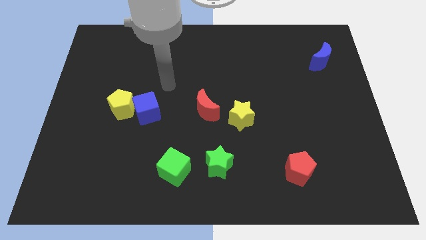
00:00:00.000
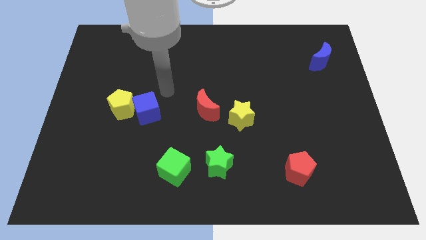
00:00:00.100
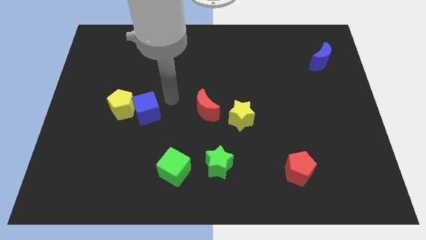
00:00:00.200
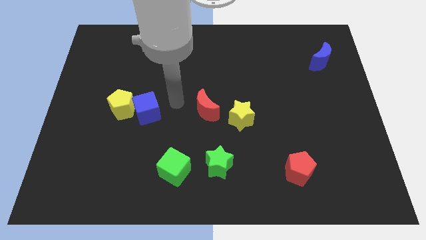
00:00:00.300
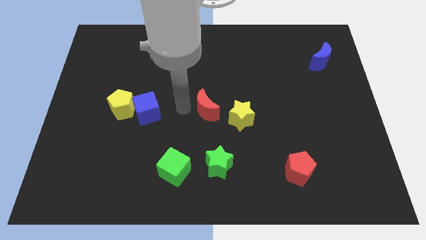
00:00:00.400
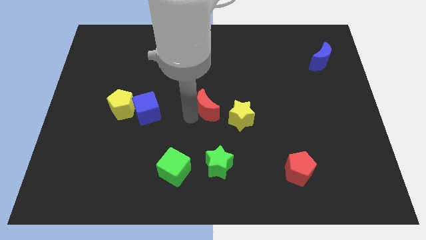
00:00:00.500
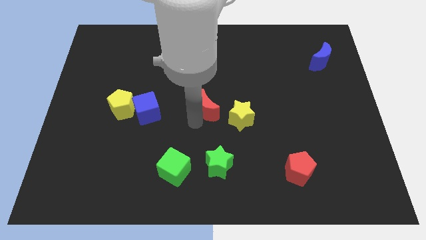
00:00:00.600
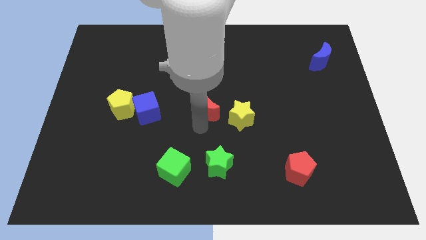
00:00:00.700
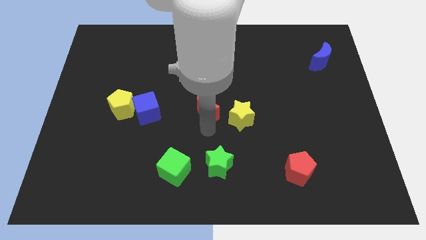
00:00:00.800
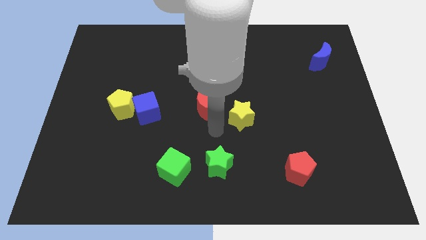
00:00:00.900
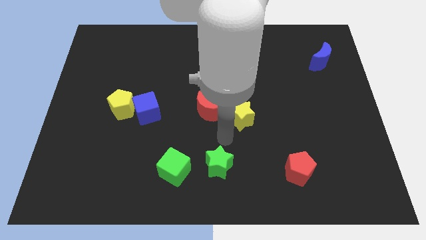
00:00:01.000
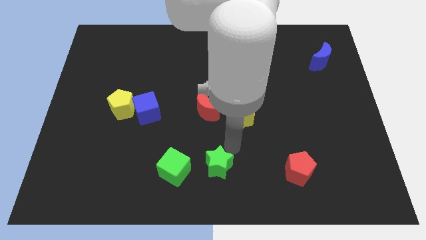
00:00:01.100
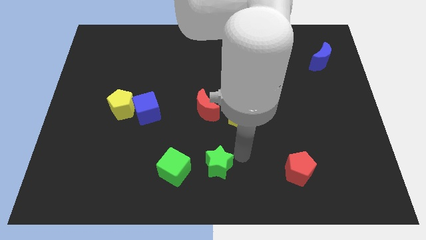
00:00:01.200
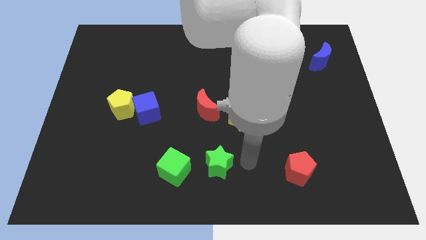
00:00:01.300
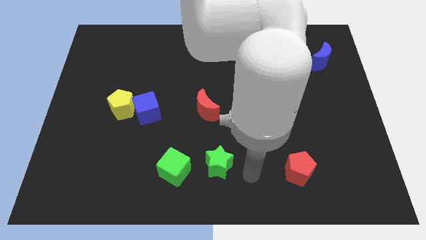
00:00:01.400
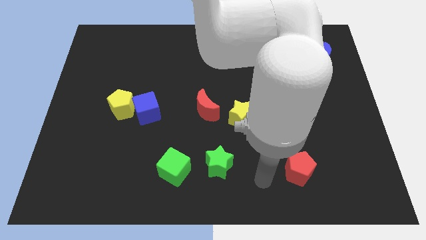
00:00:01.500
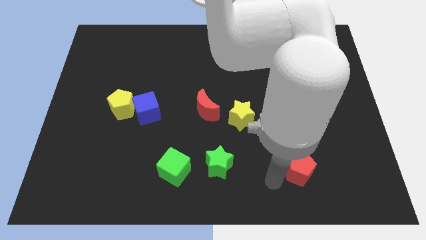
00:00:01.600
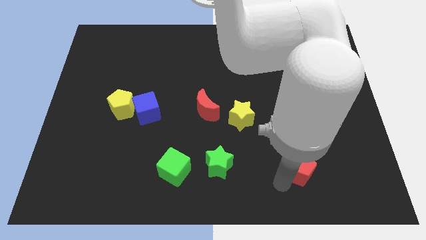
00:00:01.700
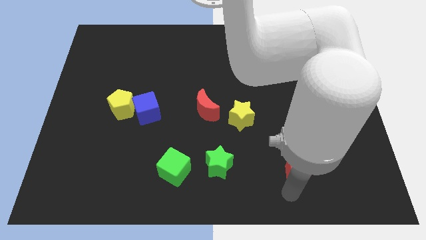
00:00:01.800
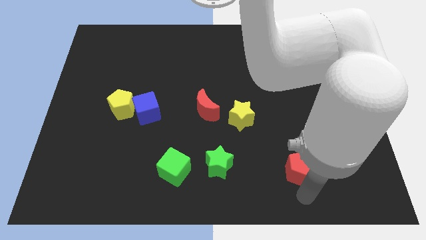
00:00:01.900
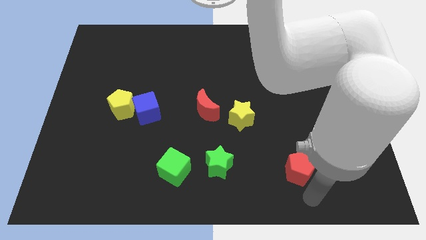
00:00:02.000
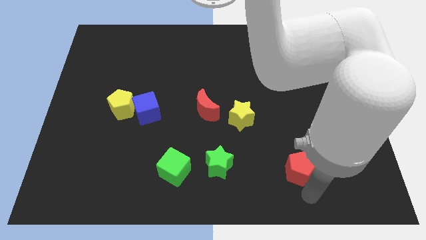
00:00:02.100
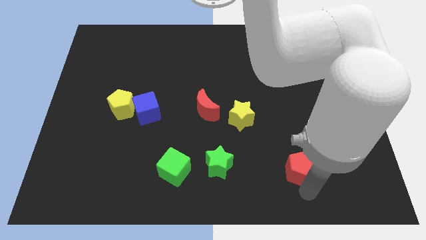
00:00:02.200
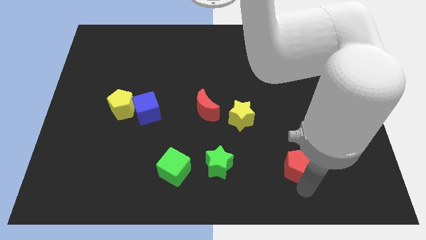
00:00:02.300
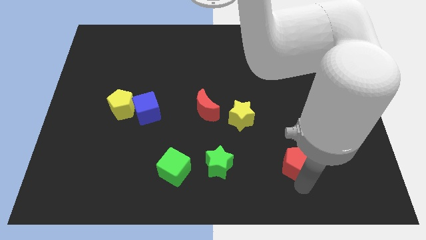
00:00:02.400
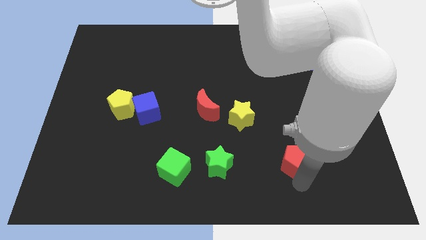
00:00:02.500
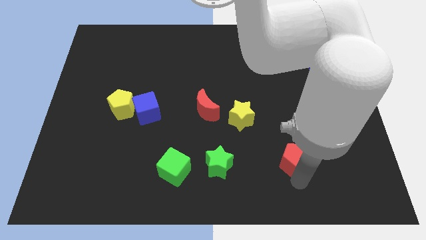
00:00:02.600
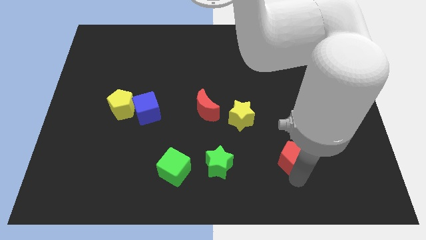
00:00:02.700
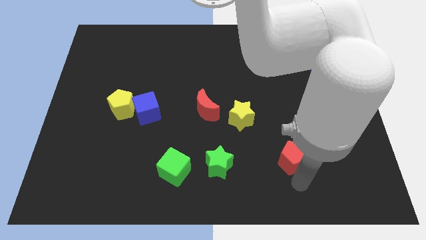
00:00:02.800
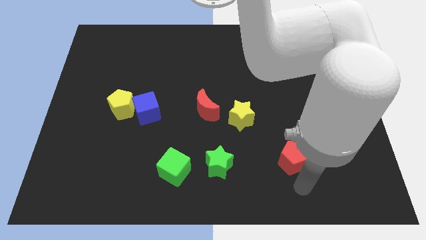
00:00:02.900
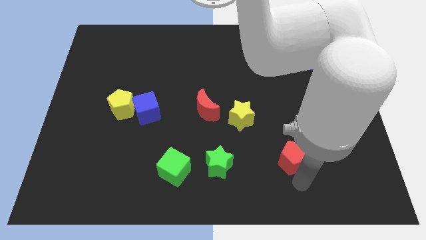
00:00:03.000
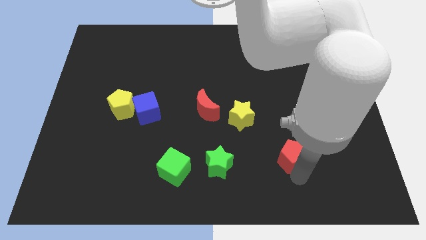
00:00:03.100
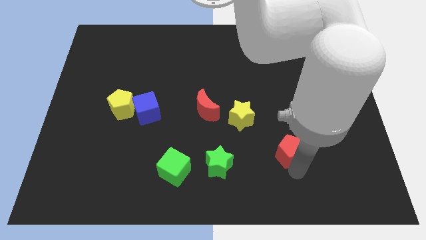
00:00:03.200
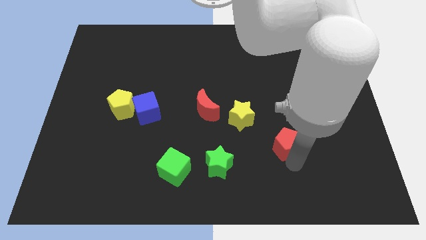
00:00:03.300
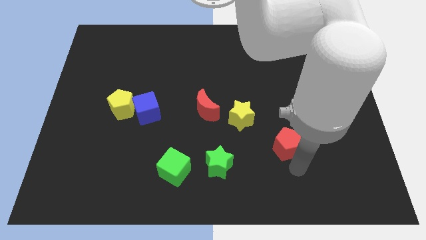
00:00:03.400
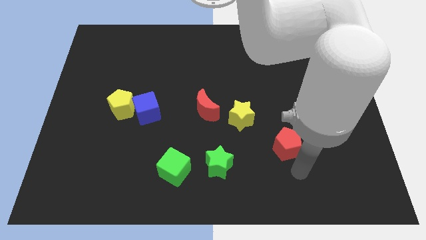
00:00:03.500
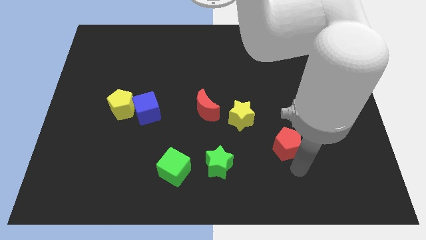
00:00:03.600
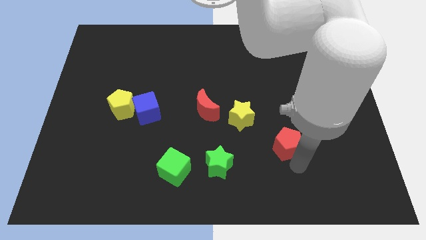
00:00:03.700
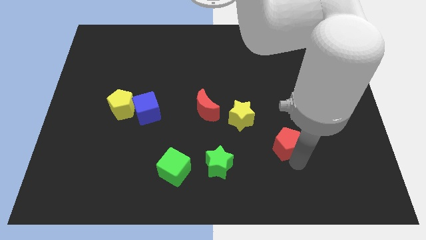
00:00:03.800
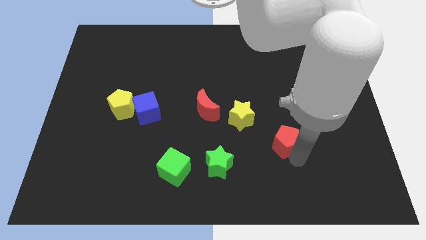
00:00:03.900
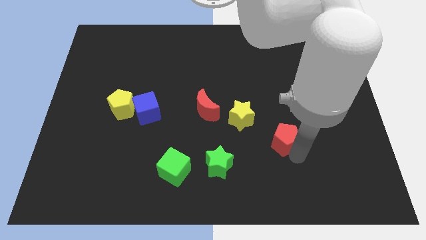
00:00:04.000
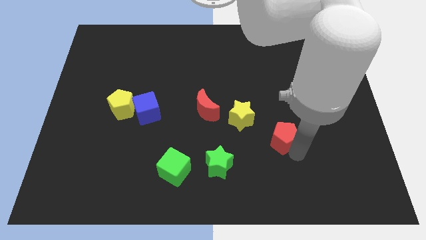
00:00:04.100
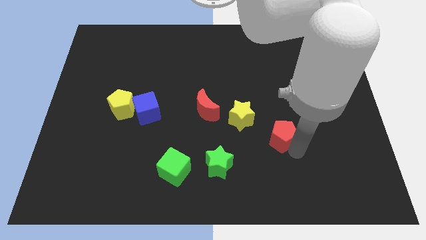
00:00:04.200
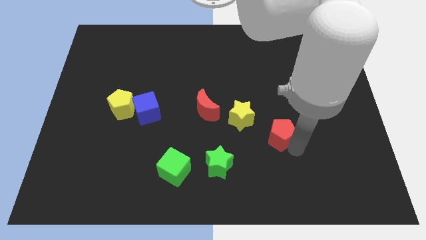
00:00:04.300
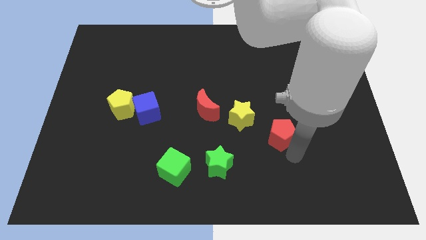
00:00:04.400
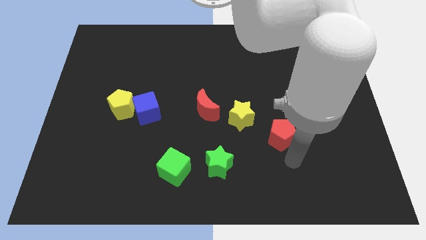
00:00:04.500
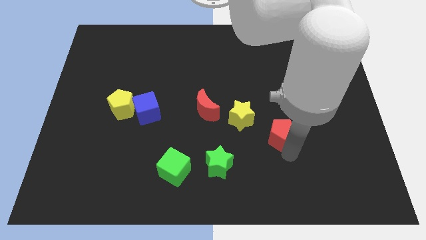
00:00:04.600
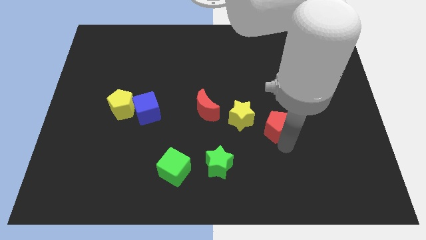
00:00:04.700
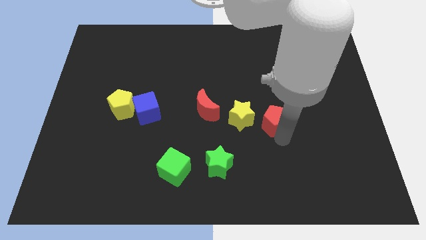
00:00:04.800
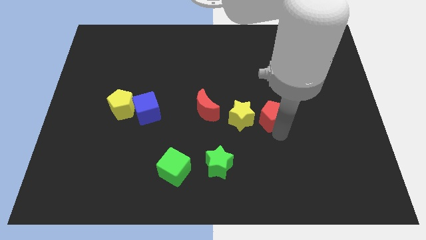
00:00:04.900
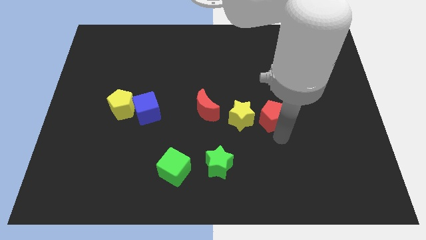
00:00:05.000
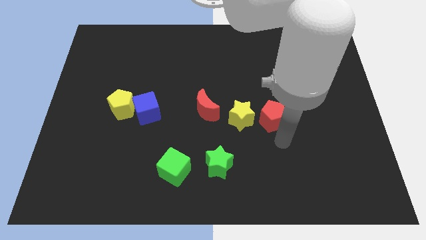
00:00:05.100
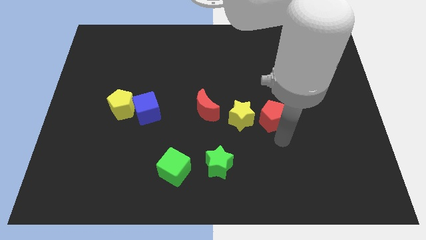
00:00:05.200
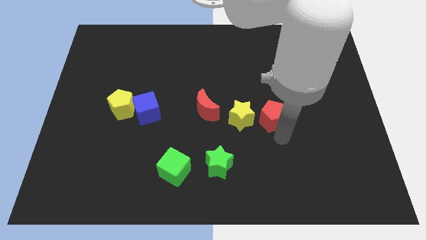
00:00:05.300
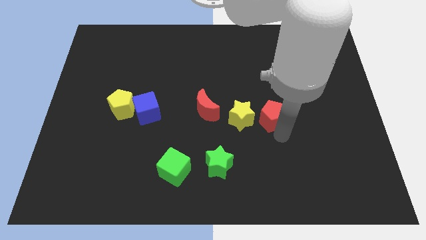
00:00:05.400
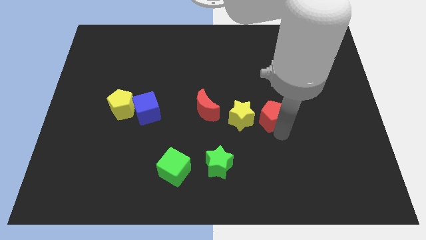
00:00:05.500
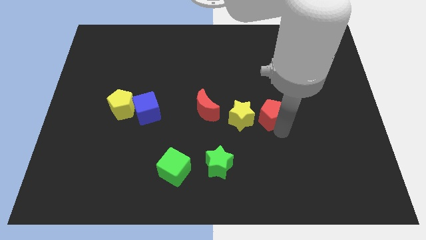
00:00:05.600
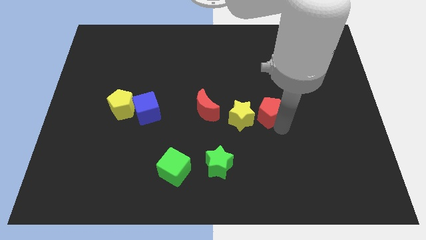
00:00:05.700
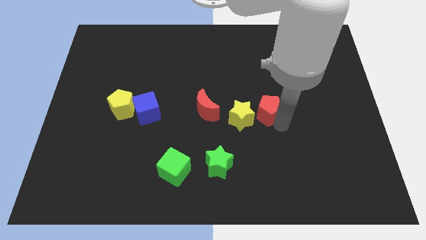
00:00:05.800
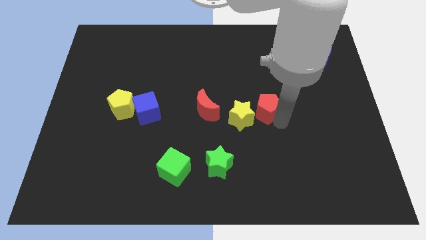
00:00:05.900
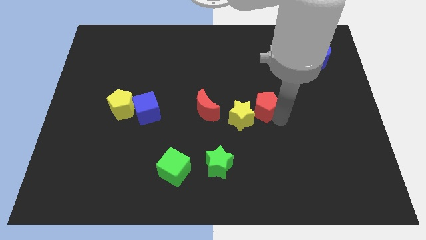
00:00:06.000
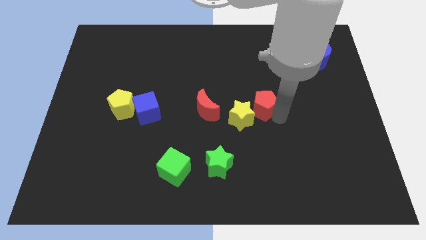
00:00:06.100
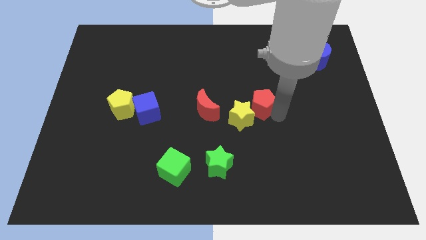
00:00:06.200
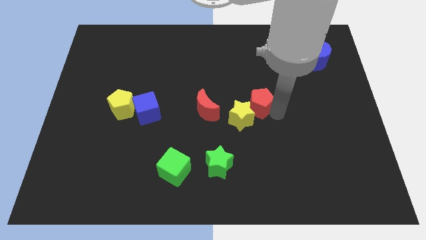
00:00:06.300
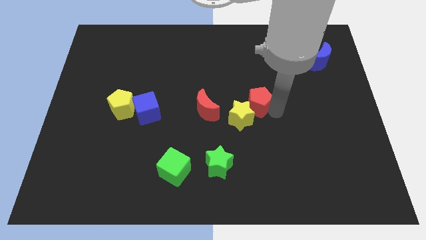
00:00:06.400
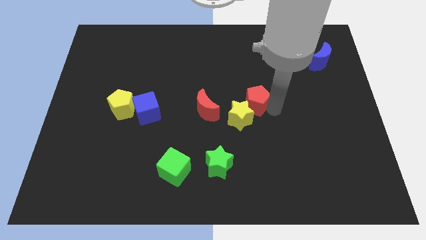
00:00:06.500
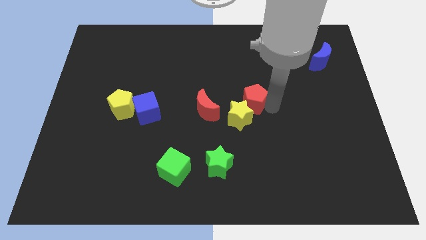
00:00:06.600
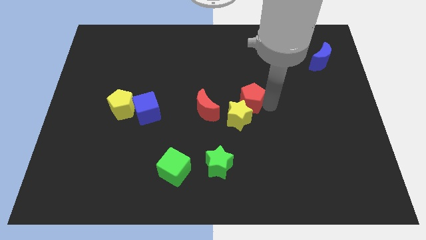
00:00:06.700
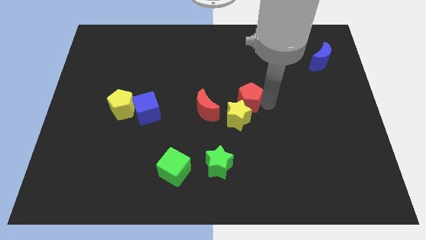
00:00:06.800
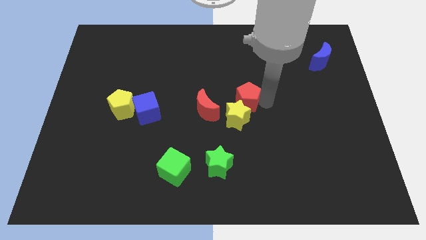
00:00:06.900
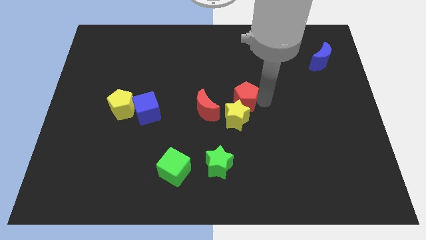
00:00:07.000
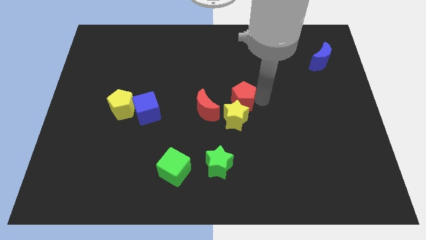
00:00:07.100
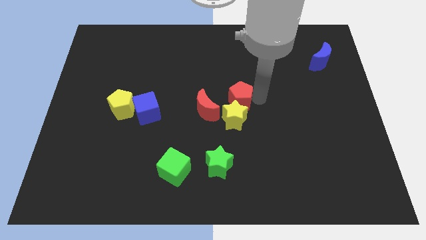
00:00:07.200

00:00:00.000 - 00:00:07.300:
push the red pentagon up and left diagonally

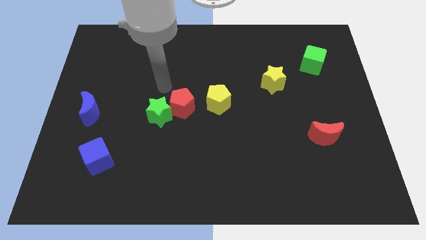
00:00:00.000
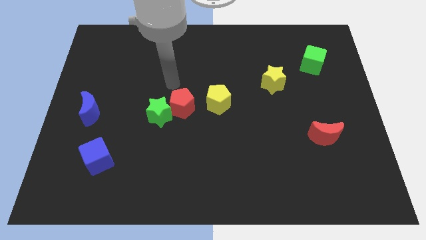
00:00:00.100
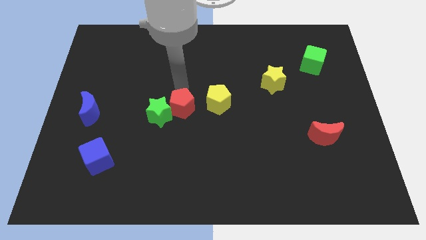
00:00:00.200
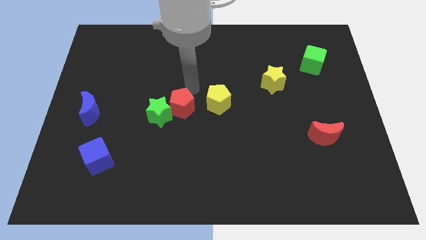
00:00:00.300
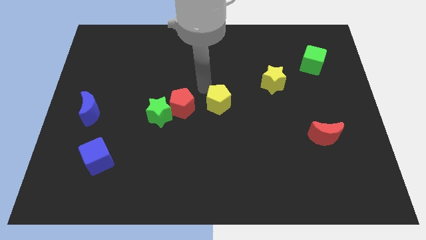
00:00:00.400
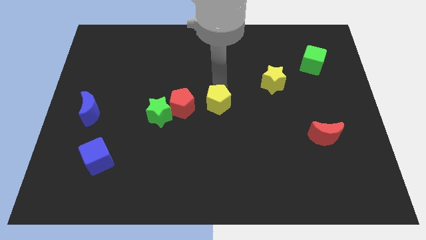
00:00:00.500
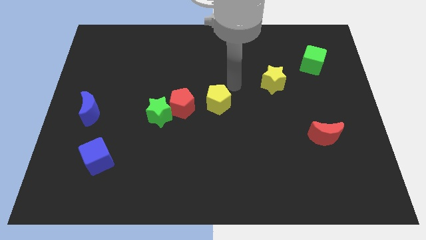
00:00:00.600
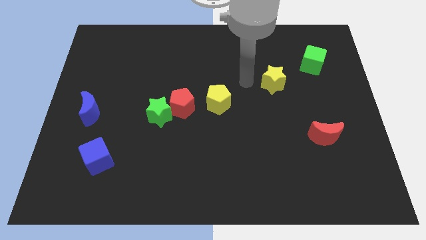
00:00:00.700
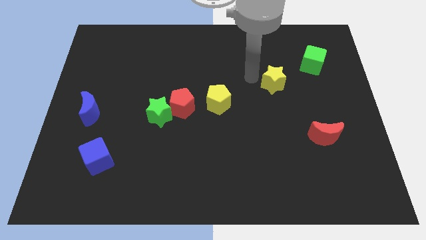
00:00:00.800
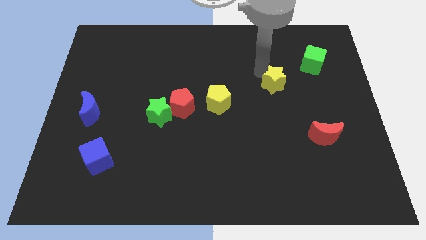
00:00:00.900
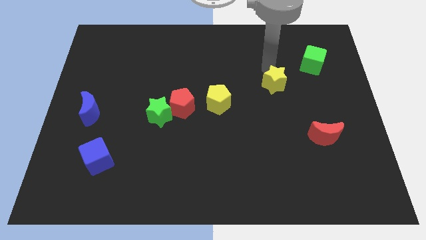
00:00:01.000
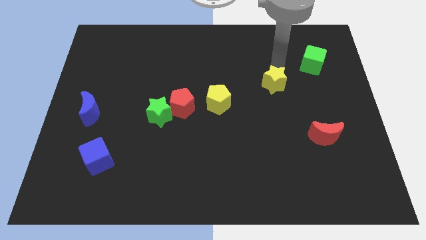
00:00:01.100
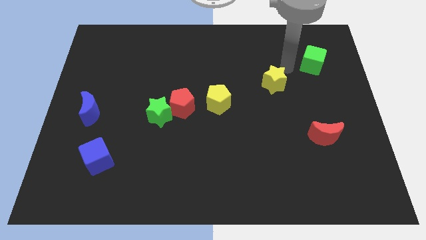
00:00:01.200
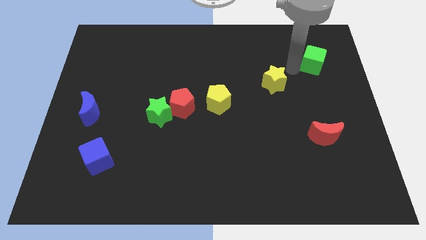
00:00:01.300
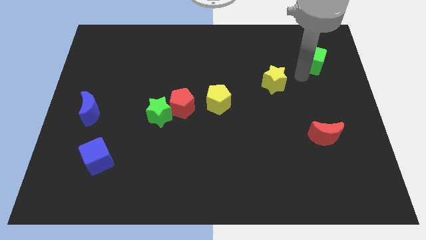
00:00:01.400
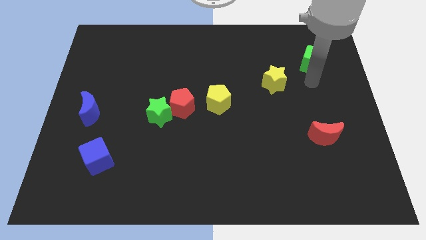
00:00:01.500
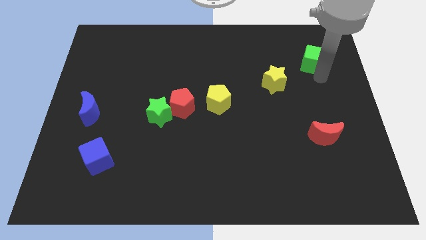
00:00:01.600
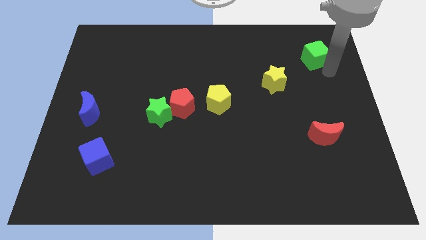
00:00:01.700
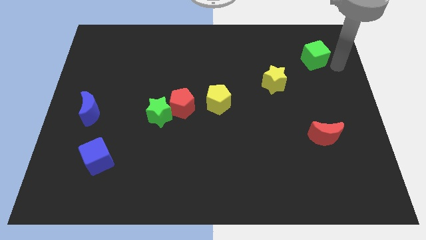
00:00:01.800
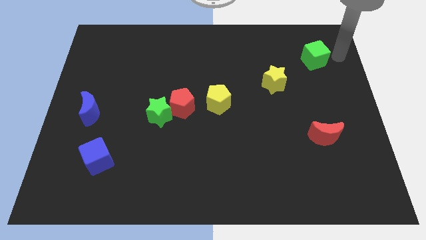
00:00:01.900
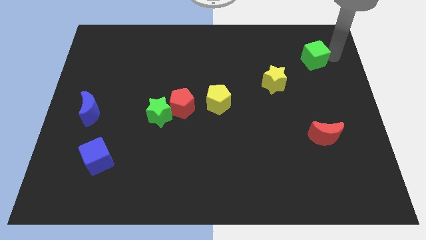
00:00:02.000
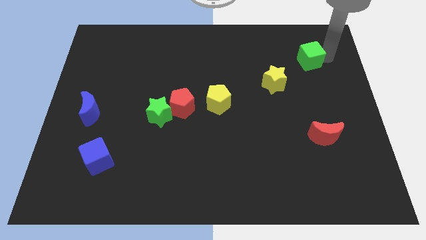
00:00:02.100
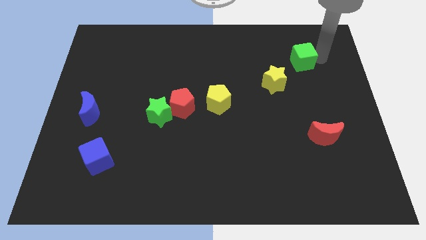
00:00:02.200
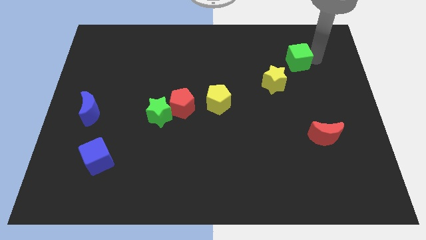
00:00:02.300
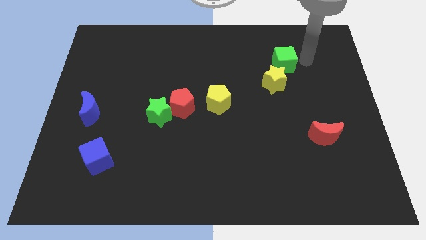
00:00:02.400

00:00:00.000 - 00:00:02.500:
slide the green cube left a little bit
